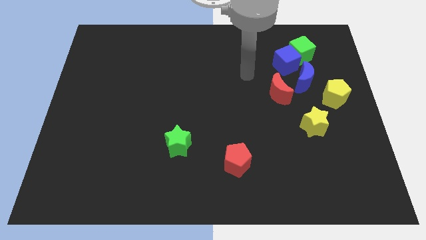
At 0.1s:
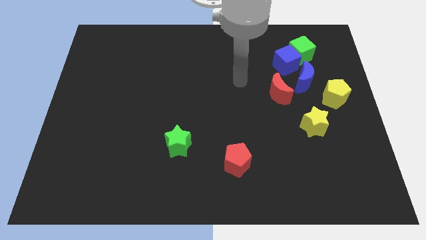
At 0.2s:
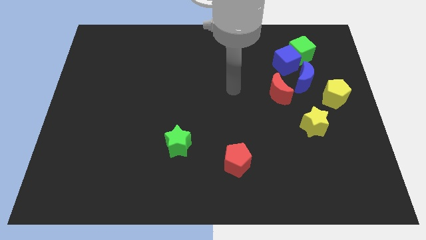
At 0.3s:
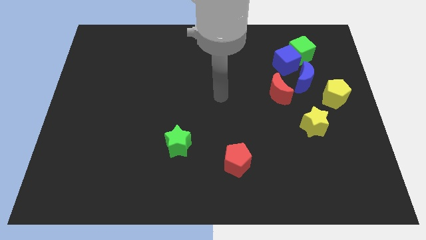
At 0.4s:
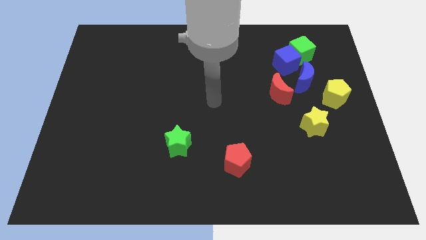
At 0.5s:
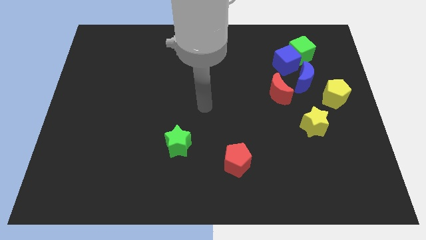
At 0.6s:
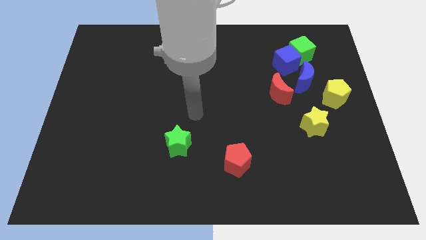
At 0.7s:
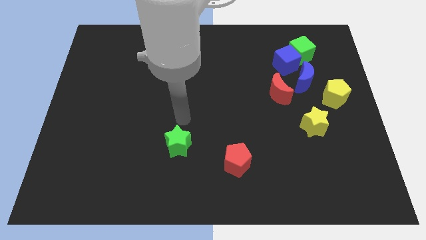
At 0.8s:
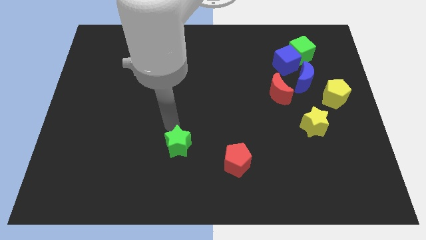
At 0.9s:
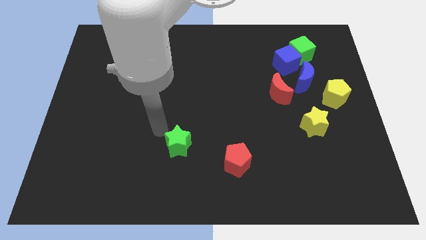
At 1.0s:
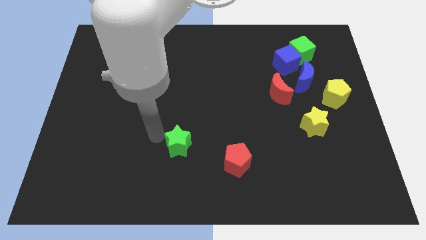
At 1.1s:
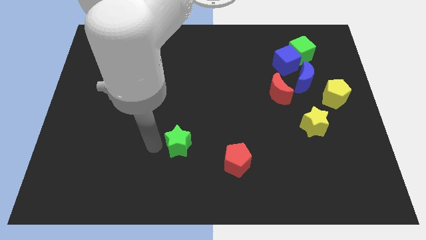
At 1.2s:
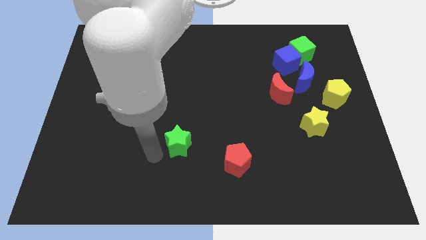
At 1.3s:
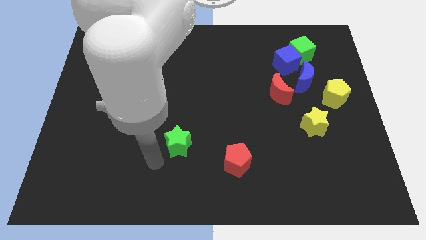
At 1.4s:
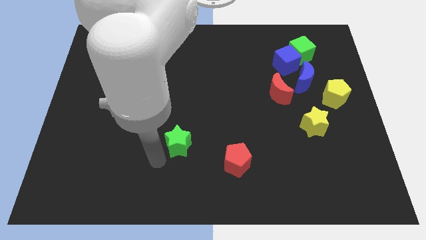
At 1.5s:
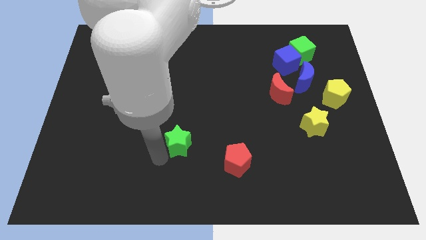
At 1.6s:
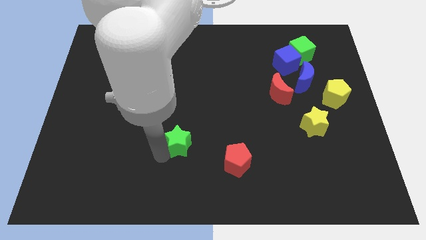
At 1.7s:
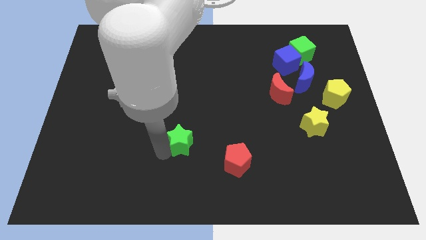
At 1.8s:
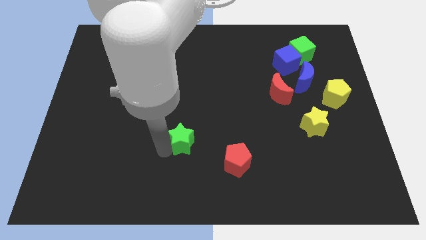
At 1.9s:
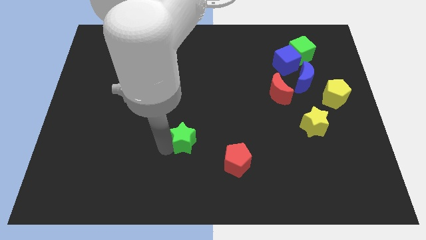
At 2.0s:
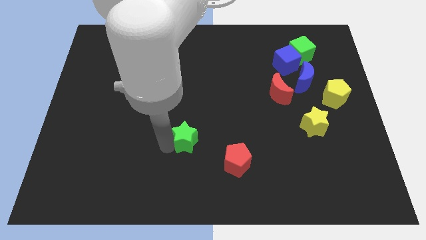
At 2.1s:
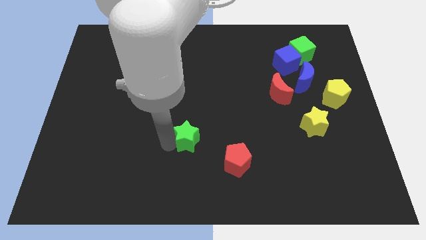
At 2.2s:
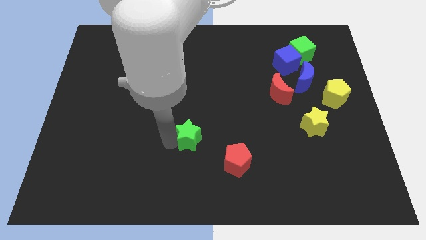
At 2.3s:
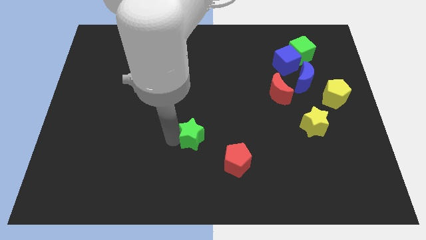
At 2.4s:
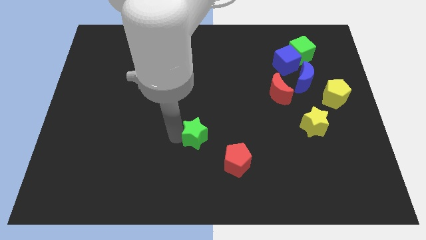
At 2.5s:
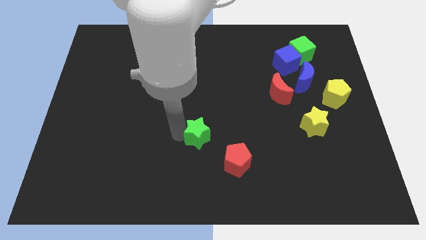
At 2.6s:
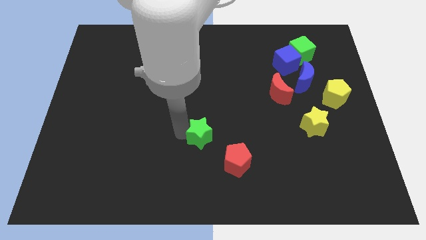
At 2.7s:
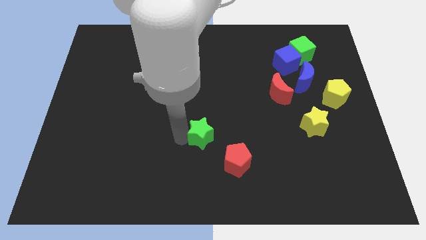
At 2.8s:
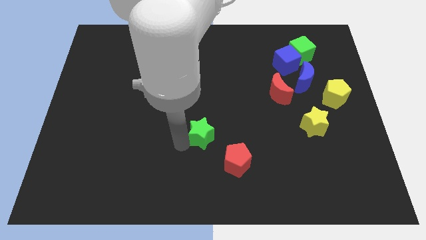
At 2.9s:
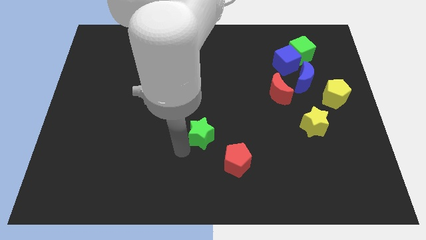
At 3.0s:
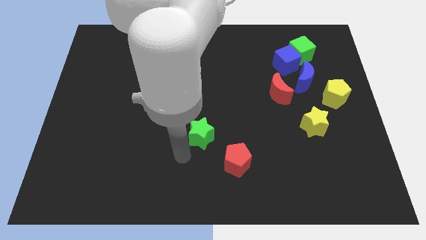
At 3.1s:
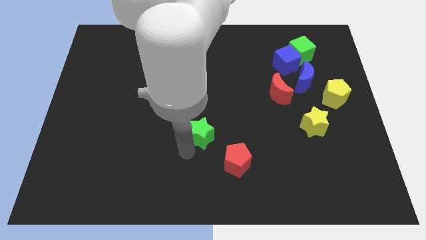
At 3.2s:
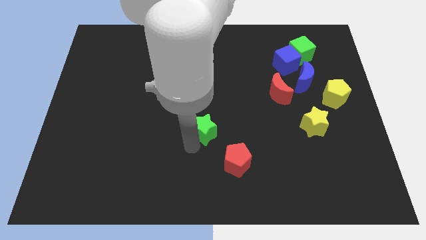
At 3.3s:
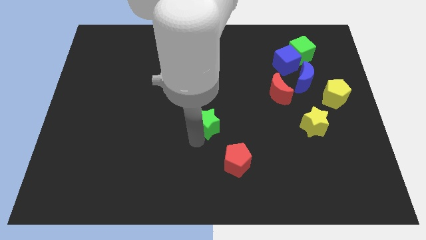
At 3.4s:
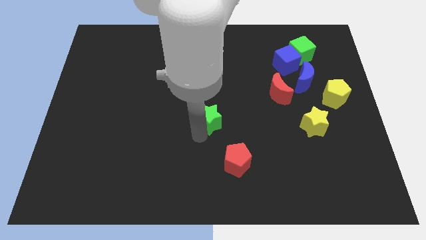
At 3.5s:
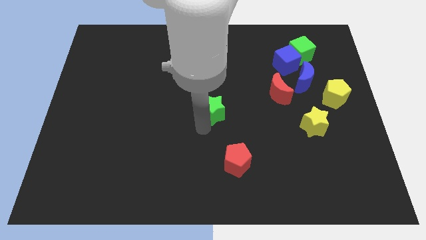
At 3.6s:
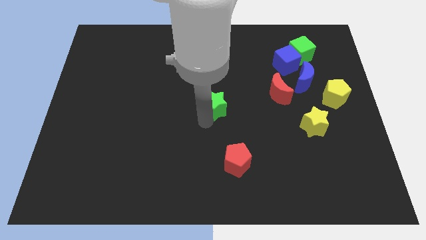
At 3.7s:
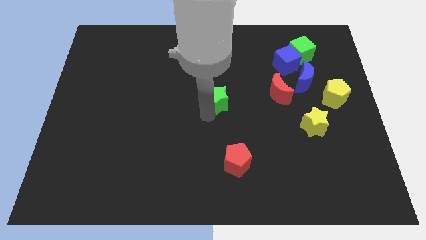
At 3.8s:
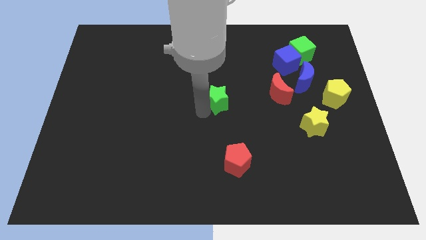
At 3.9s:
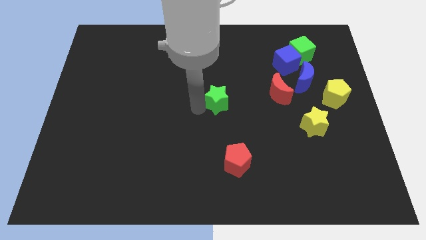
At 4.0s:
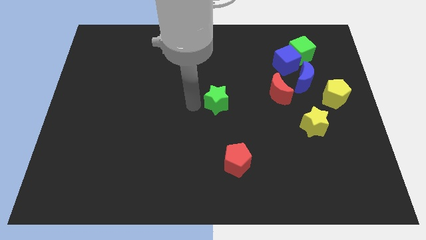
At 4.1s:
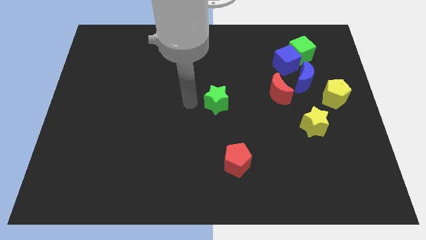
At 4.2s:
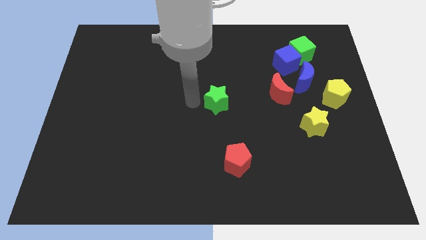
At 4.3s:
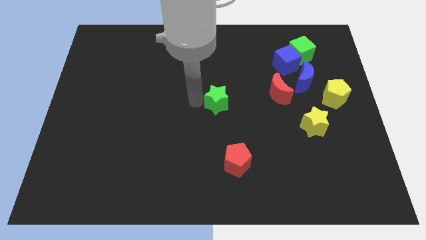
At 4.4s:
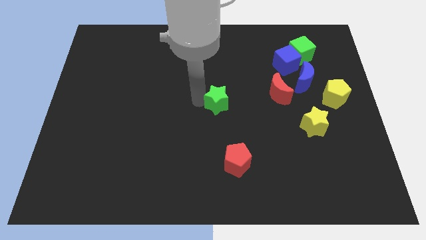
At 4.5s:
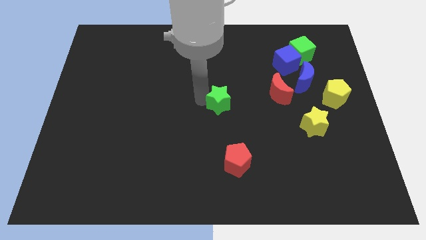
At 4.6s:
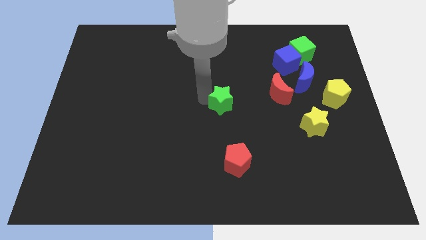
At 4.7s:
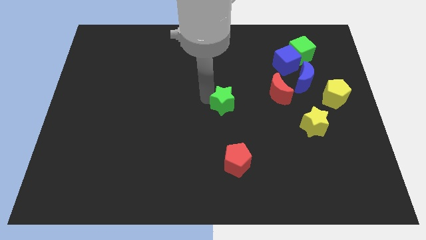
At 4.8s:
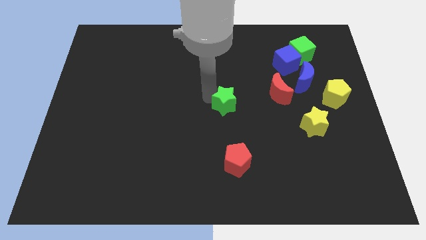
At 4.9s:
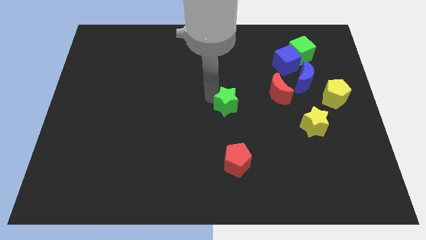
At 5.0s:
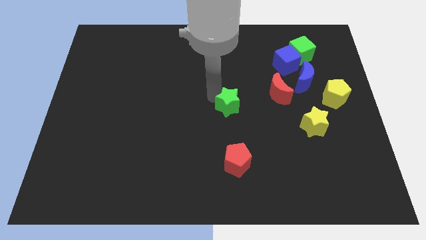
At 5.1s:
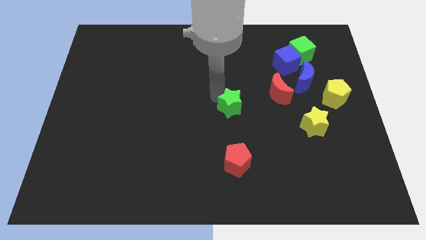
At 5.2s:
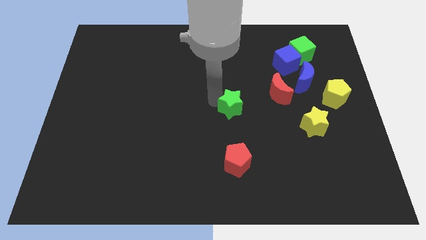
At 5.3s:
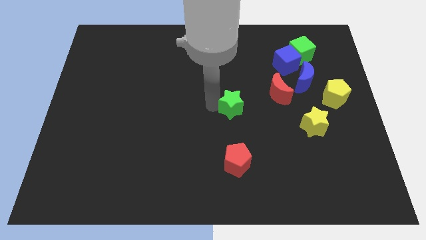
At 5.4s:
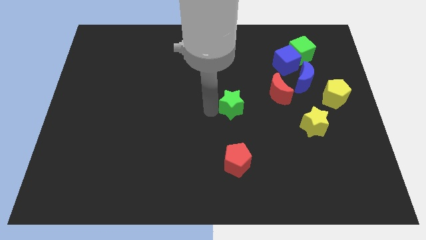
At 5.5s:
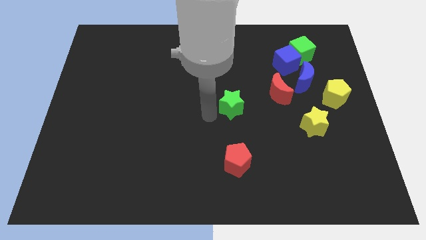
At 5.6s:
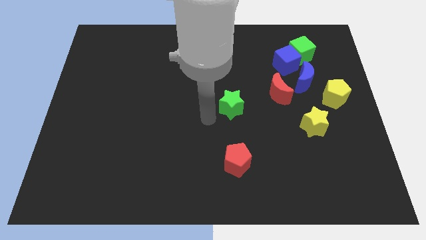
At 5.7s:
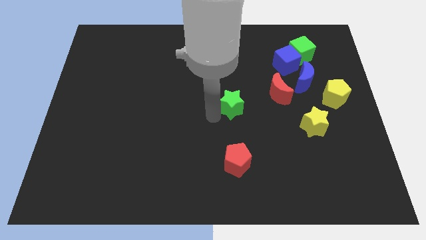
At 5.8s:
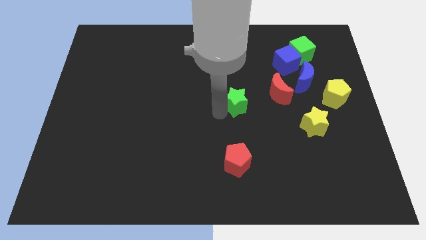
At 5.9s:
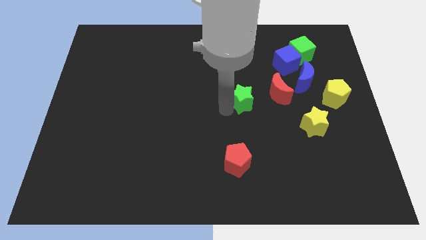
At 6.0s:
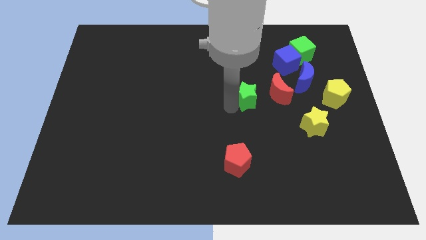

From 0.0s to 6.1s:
push the green star upwards and right

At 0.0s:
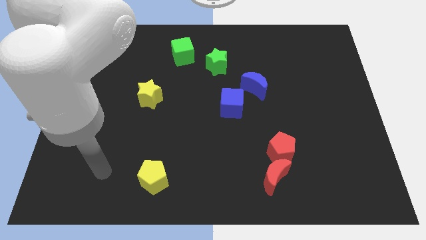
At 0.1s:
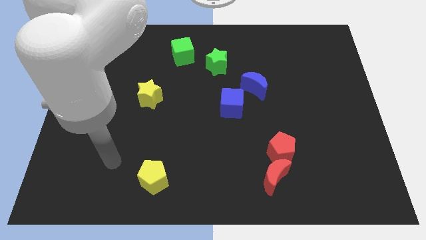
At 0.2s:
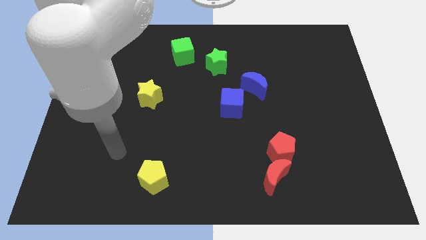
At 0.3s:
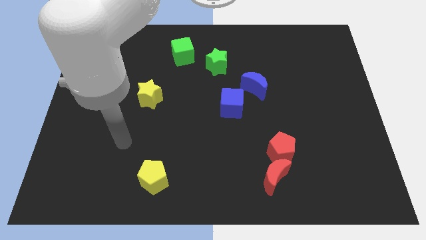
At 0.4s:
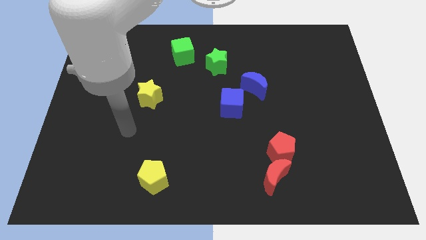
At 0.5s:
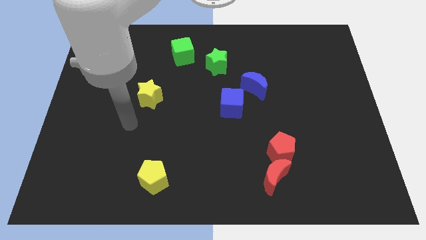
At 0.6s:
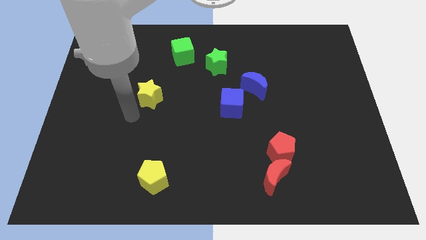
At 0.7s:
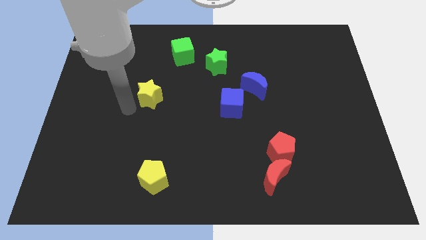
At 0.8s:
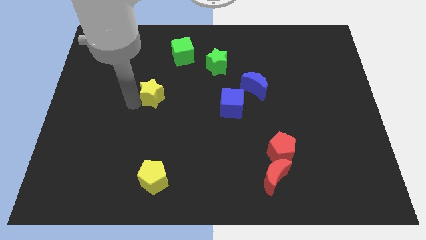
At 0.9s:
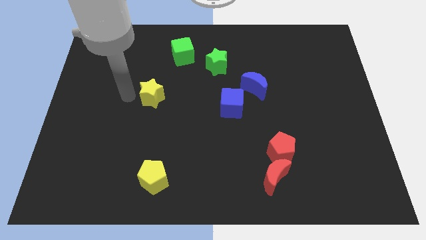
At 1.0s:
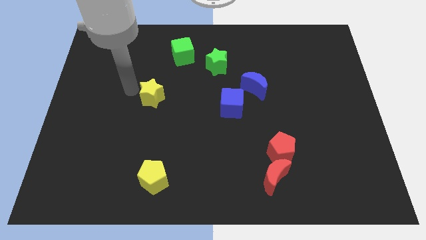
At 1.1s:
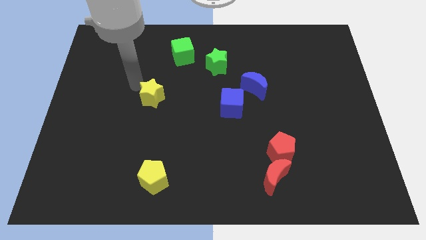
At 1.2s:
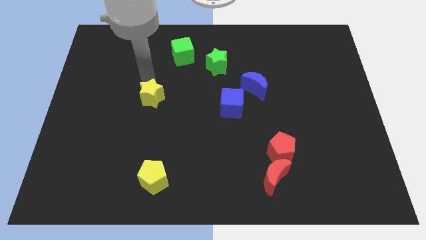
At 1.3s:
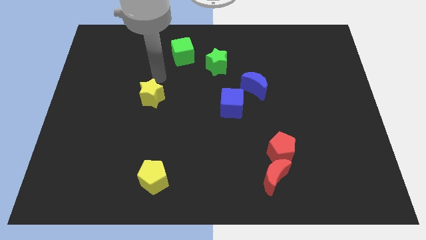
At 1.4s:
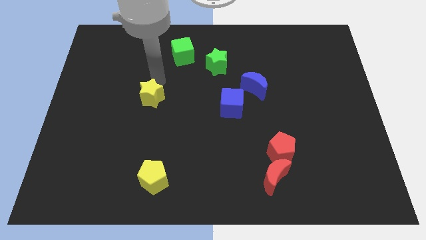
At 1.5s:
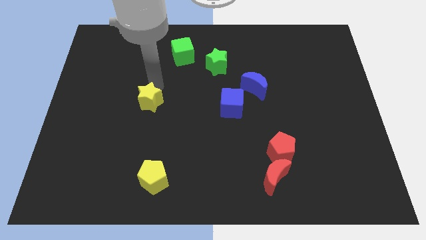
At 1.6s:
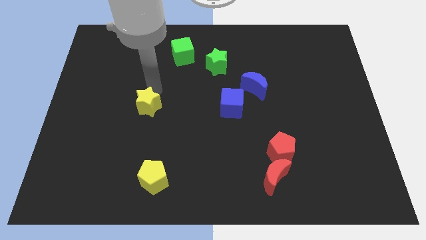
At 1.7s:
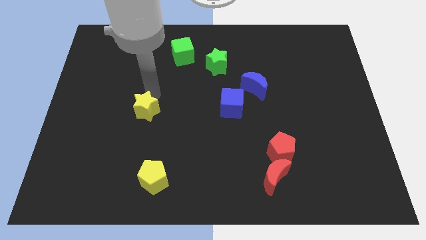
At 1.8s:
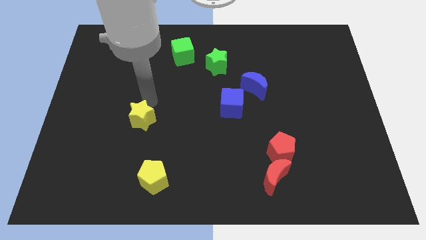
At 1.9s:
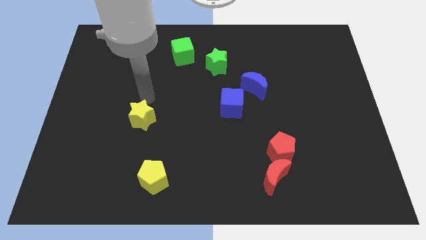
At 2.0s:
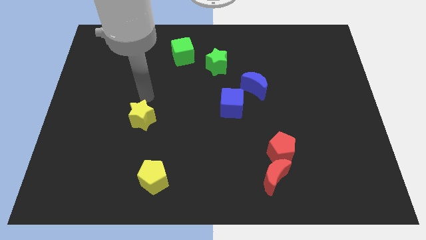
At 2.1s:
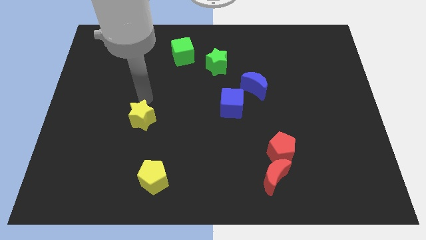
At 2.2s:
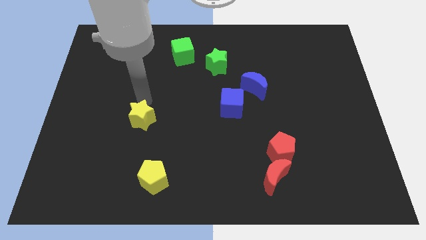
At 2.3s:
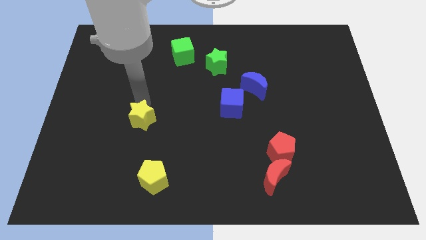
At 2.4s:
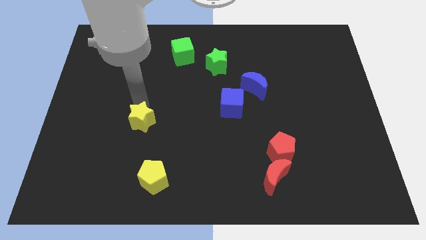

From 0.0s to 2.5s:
slightly move the yellow star down
